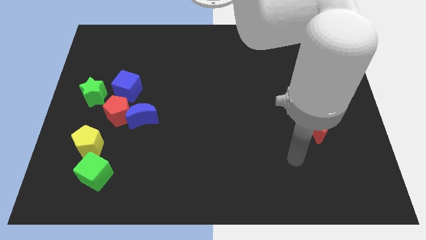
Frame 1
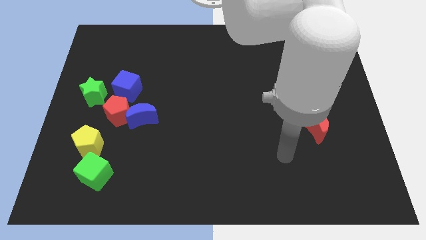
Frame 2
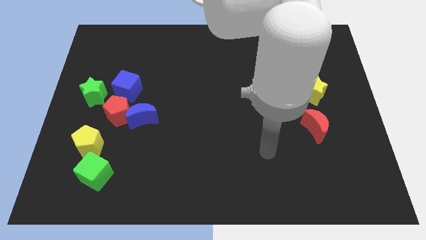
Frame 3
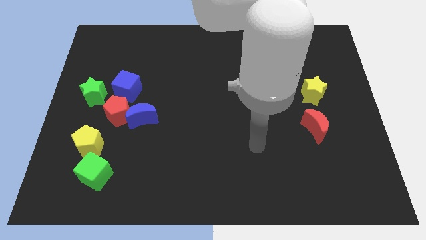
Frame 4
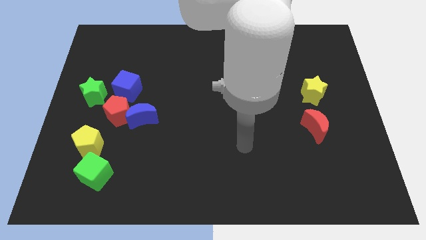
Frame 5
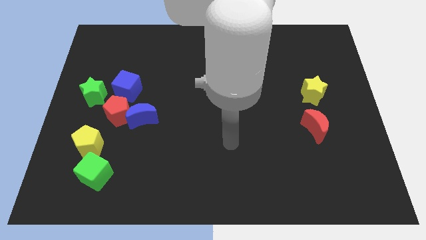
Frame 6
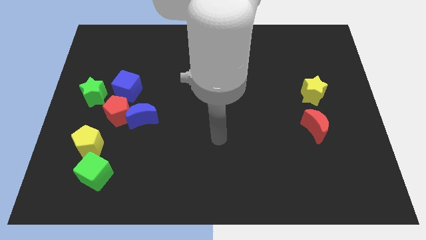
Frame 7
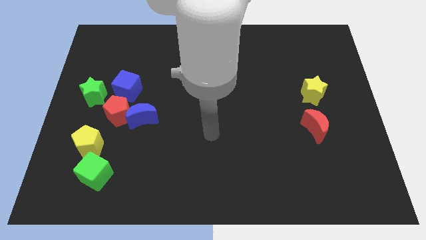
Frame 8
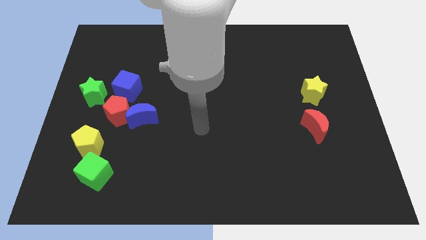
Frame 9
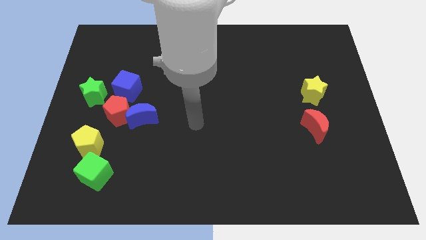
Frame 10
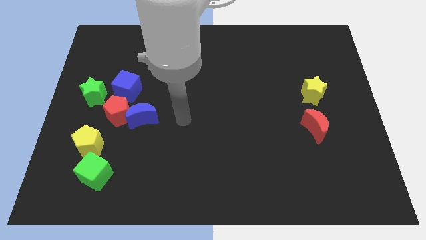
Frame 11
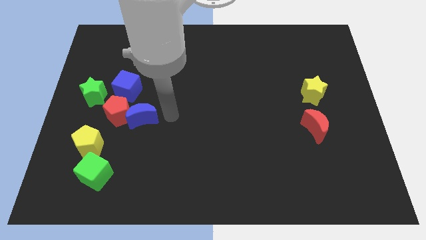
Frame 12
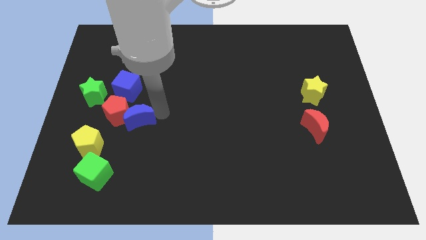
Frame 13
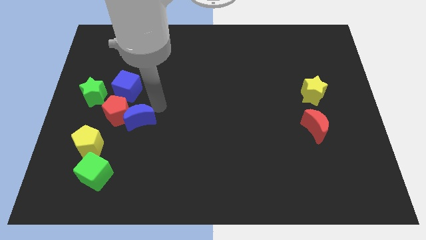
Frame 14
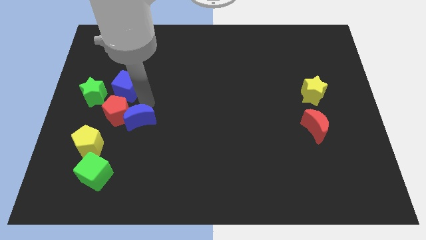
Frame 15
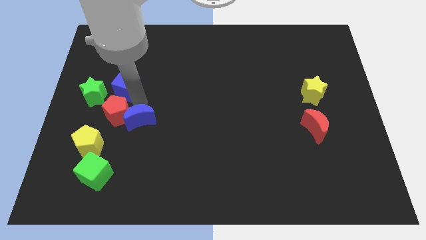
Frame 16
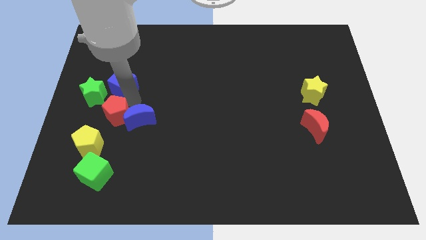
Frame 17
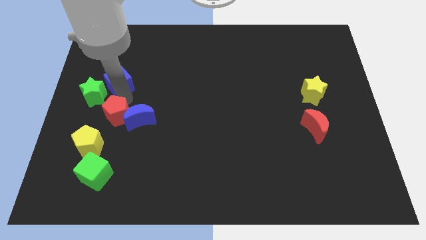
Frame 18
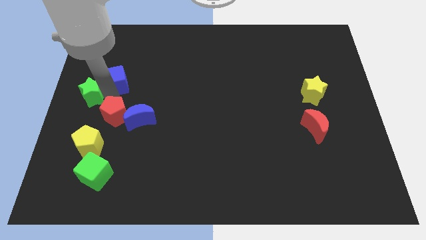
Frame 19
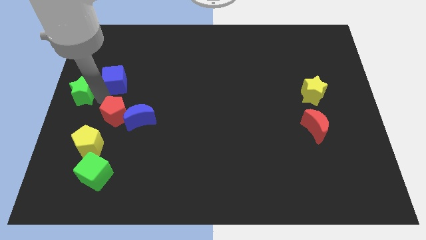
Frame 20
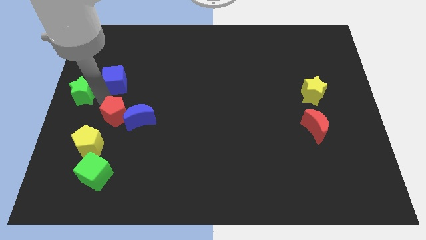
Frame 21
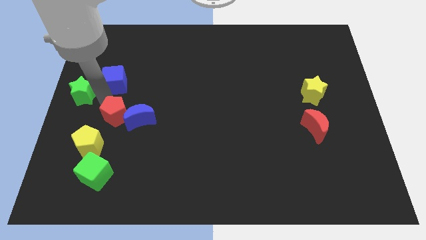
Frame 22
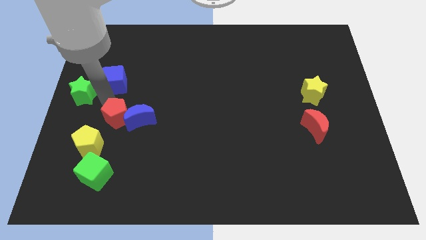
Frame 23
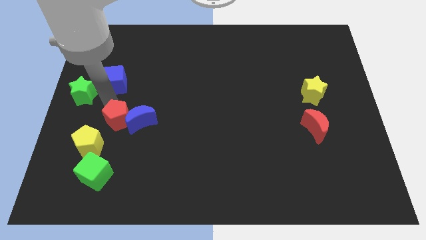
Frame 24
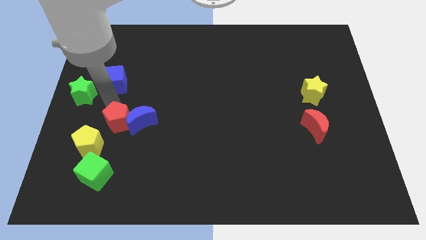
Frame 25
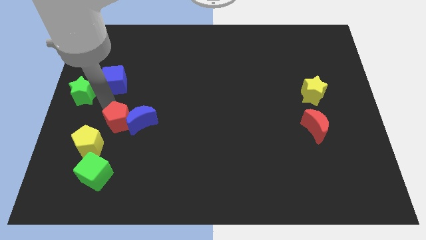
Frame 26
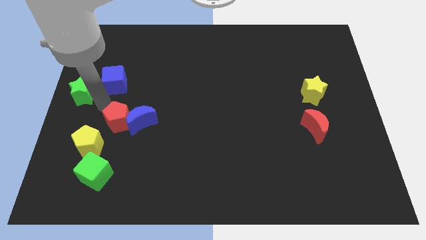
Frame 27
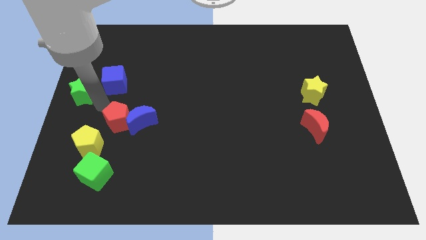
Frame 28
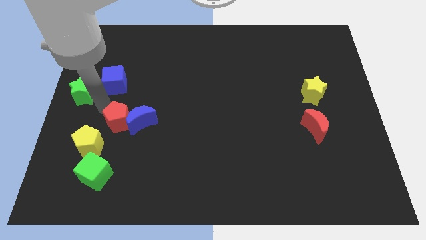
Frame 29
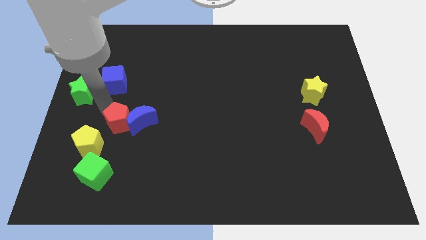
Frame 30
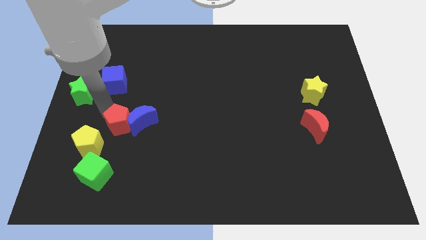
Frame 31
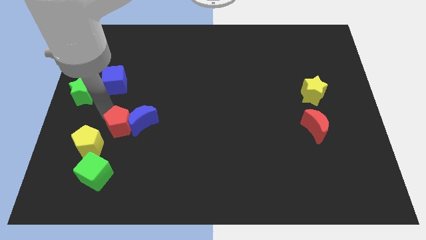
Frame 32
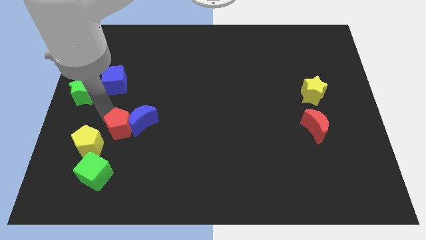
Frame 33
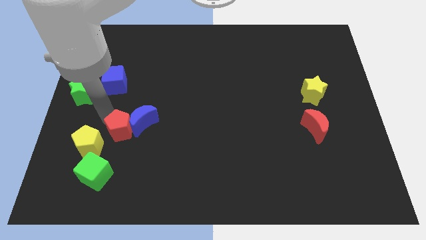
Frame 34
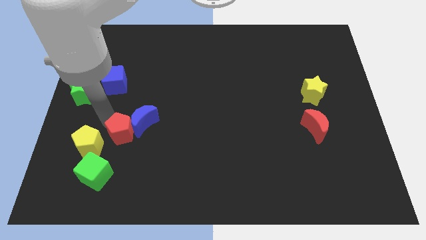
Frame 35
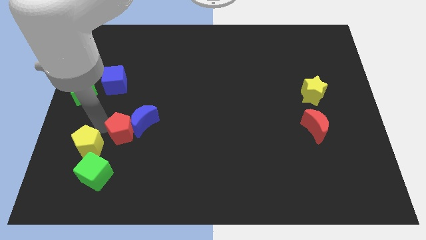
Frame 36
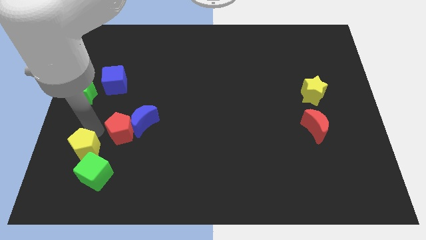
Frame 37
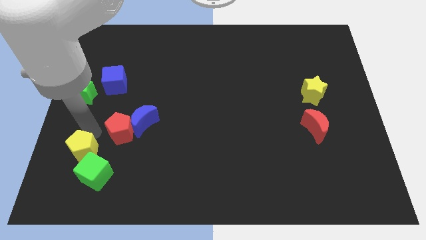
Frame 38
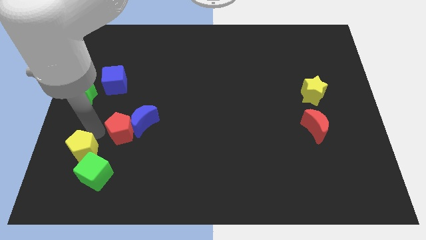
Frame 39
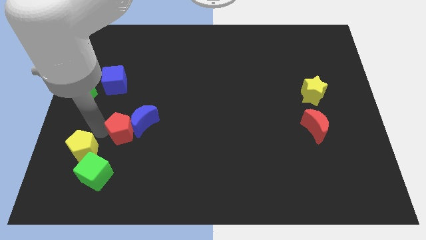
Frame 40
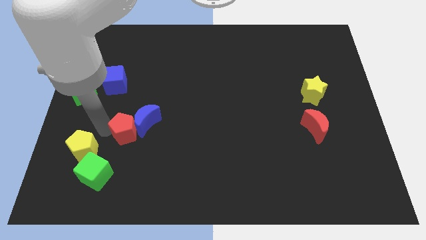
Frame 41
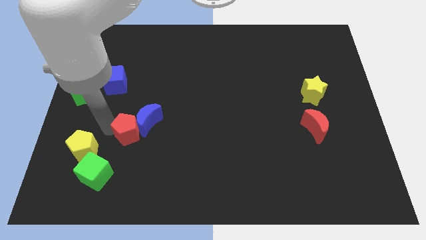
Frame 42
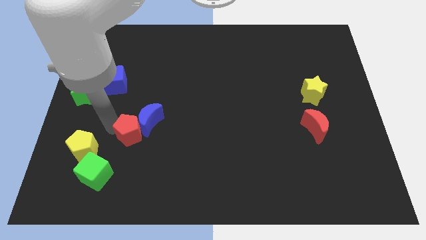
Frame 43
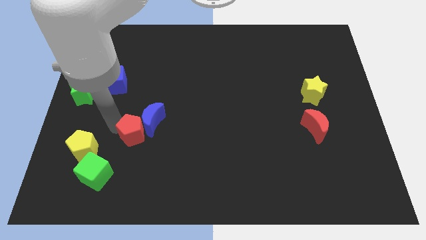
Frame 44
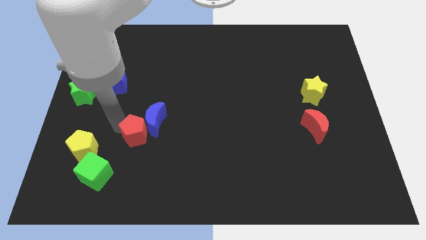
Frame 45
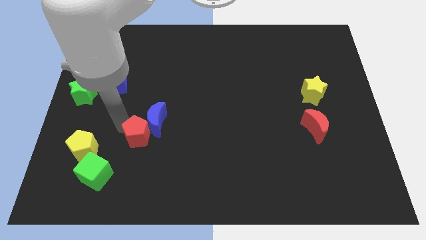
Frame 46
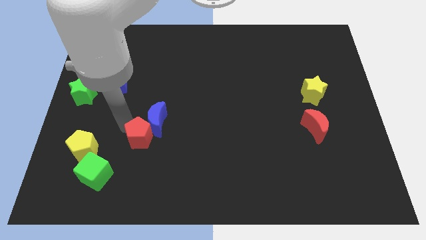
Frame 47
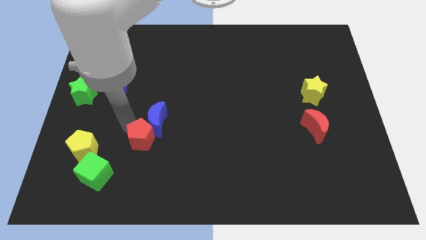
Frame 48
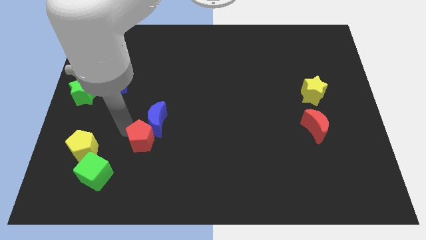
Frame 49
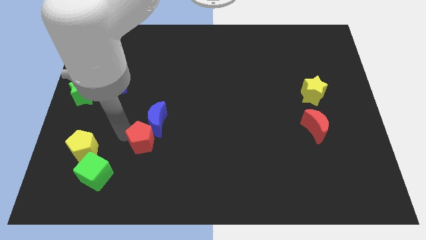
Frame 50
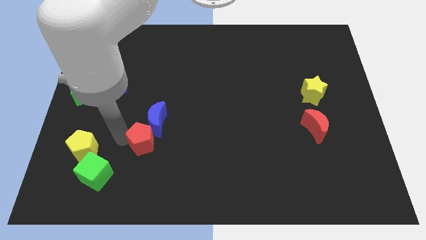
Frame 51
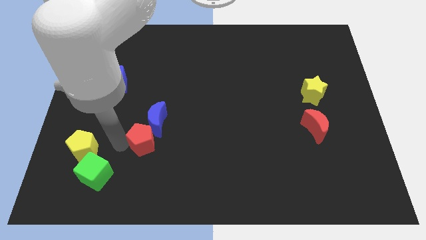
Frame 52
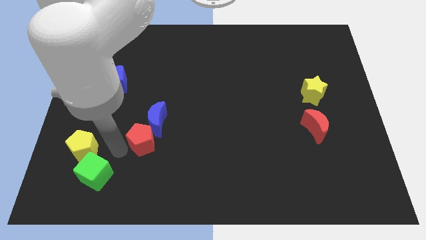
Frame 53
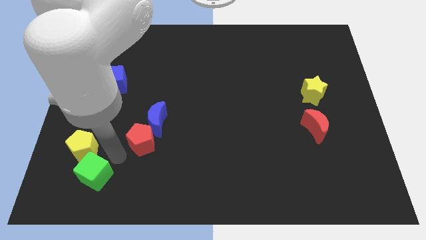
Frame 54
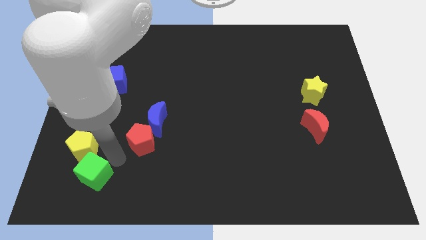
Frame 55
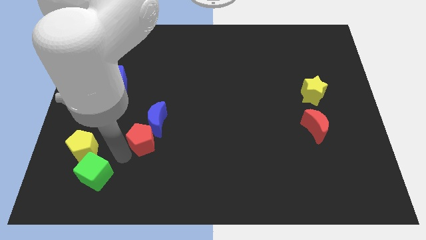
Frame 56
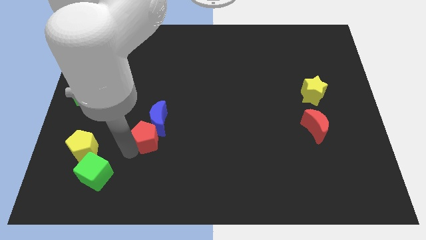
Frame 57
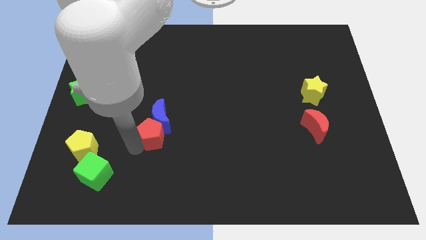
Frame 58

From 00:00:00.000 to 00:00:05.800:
push the red pentagon to the right somewhat

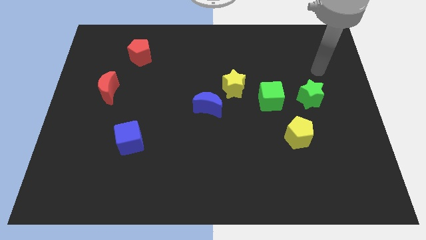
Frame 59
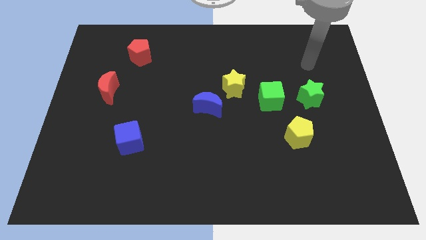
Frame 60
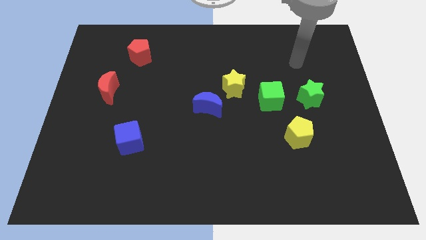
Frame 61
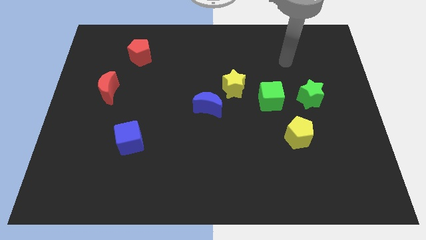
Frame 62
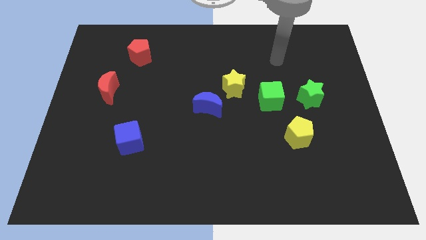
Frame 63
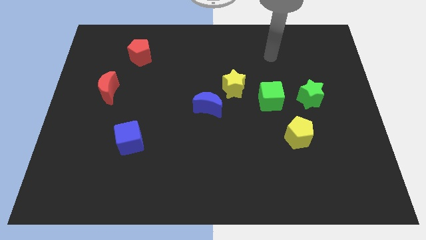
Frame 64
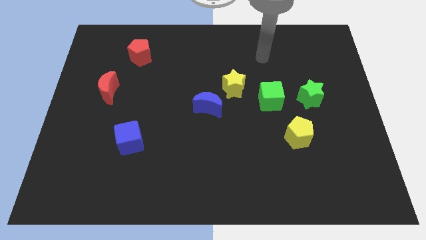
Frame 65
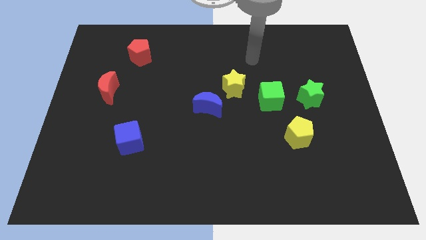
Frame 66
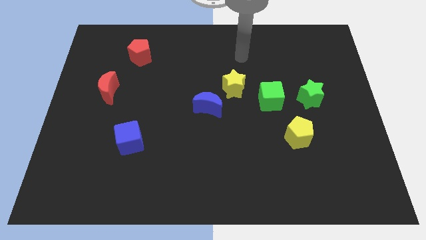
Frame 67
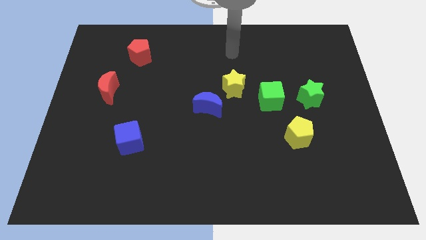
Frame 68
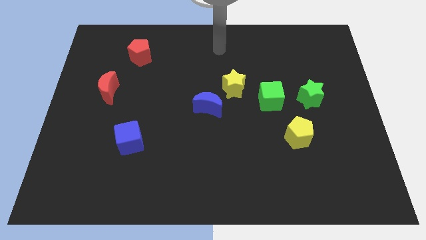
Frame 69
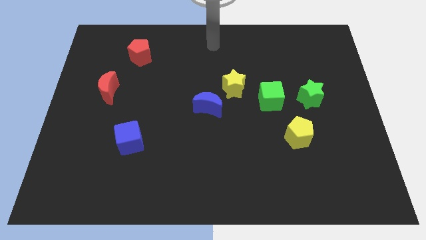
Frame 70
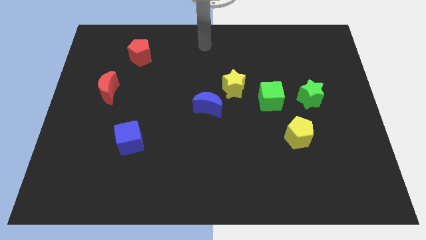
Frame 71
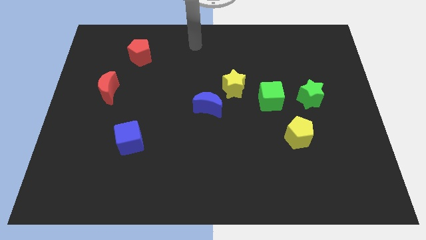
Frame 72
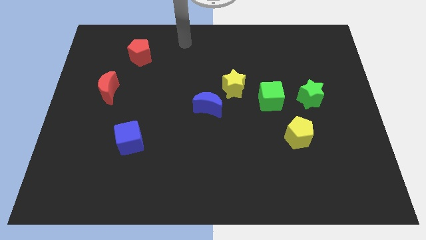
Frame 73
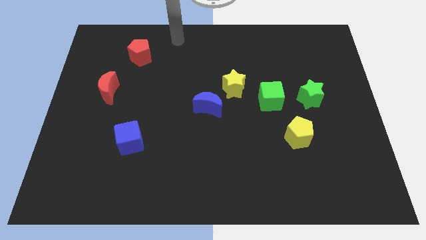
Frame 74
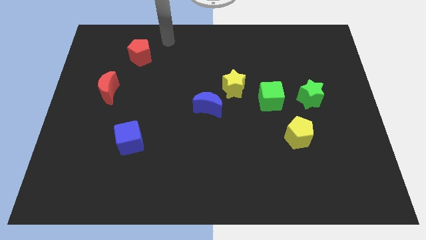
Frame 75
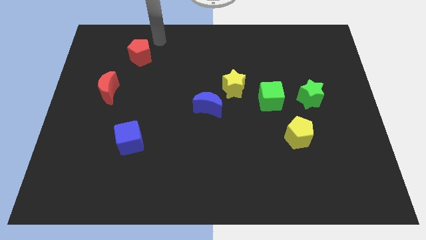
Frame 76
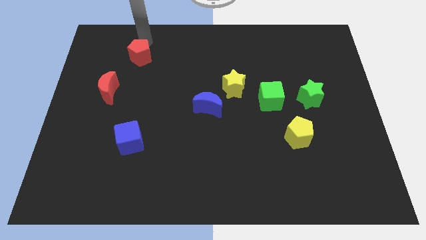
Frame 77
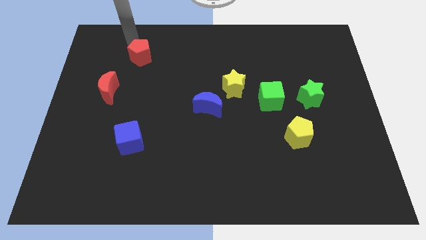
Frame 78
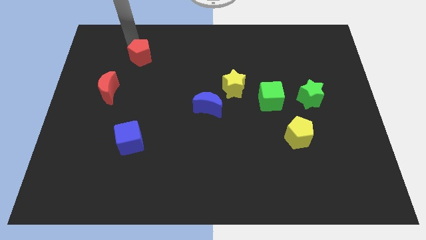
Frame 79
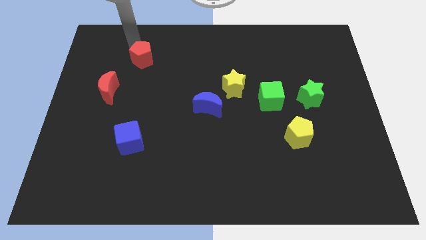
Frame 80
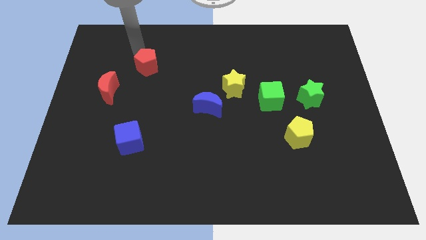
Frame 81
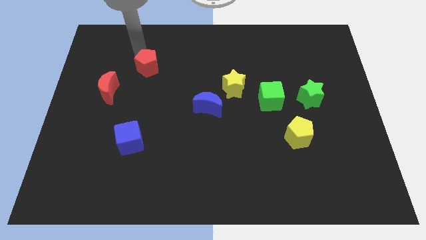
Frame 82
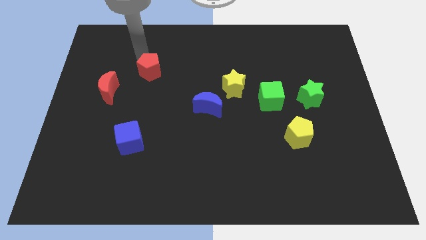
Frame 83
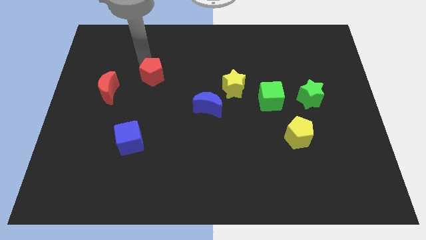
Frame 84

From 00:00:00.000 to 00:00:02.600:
slide the red pentagon a little downwards and right
